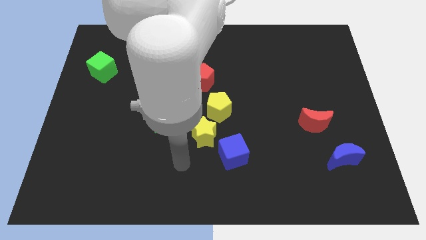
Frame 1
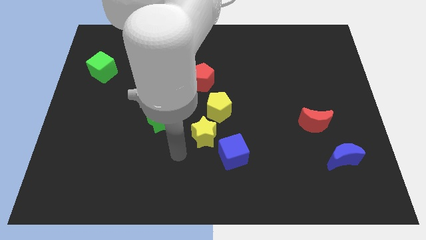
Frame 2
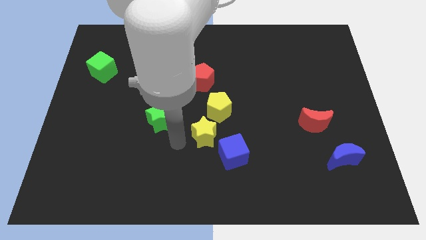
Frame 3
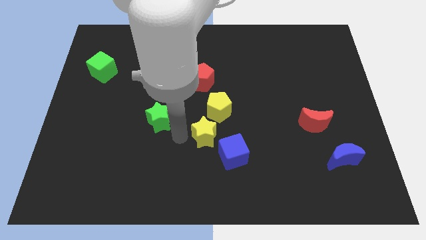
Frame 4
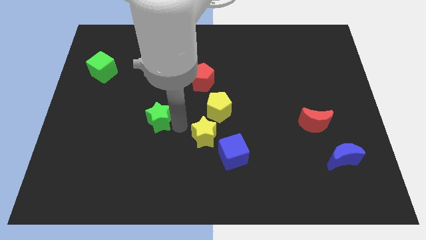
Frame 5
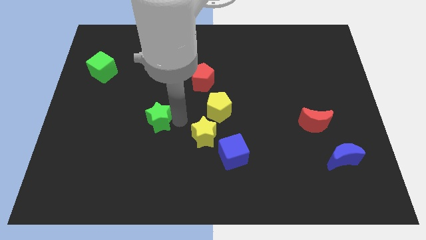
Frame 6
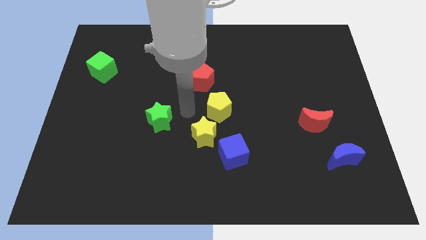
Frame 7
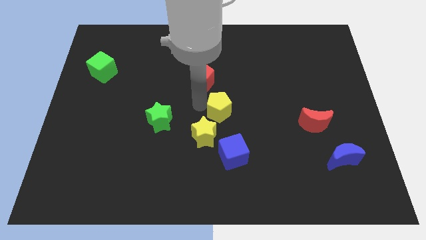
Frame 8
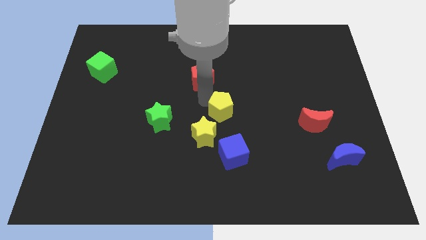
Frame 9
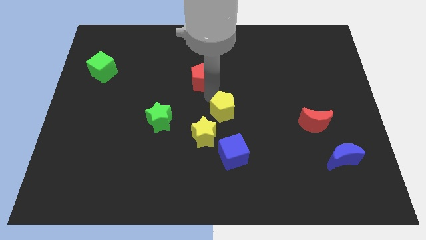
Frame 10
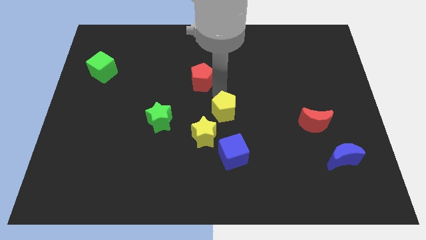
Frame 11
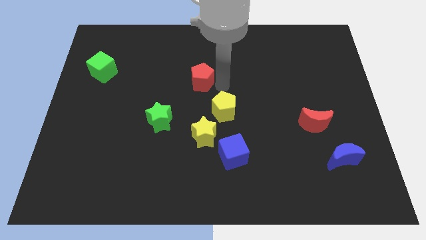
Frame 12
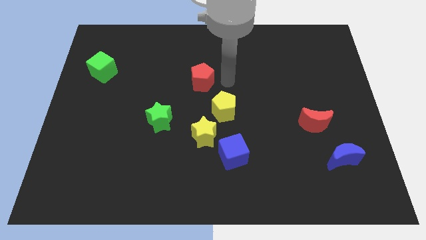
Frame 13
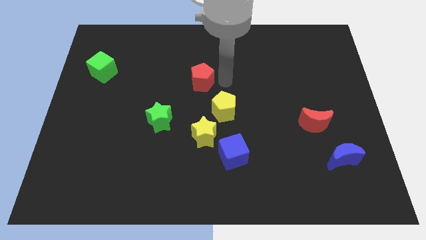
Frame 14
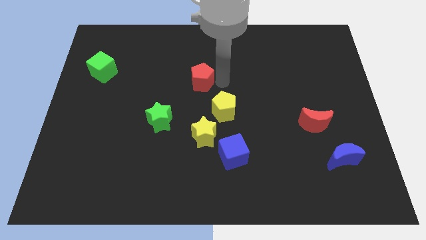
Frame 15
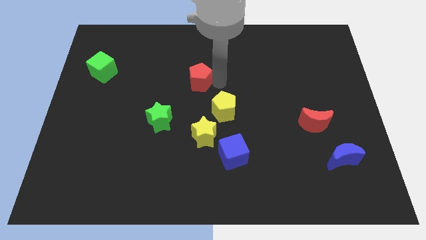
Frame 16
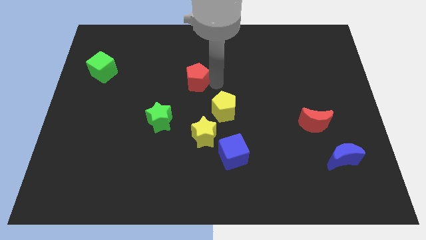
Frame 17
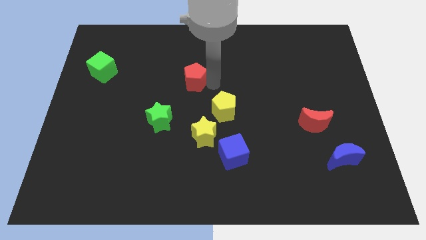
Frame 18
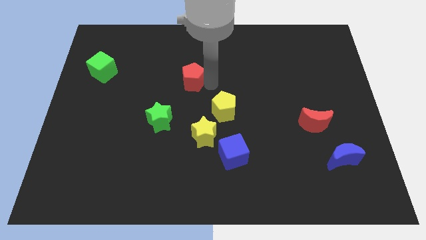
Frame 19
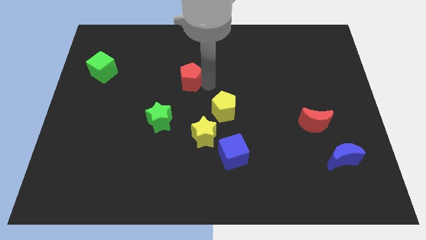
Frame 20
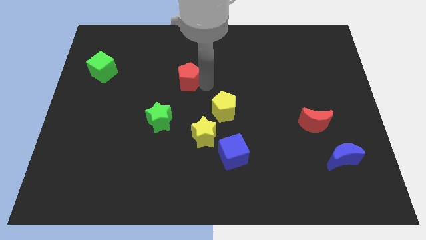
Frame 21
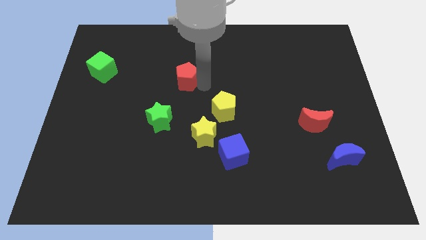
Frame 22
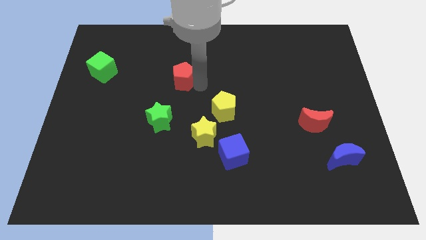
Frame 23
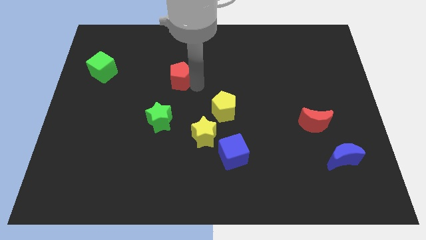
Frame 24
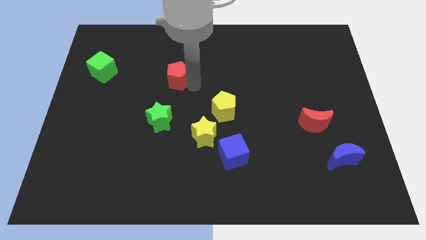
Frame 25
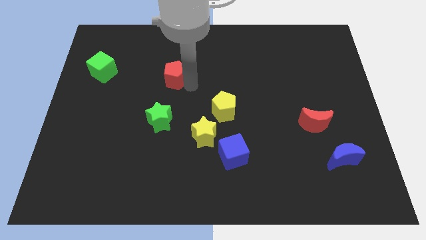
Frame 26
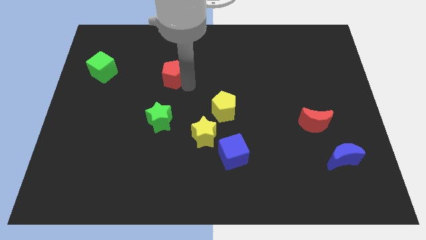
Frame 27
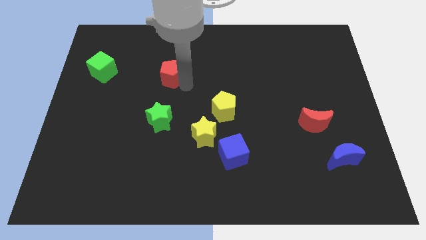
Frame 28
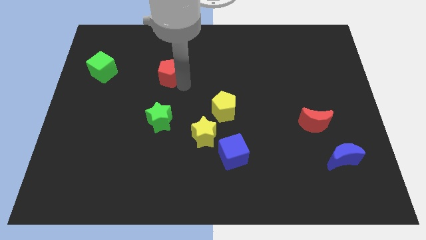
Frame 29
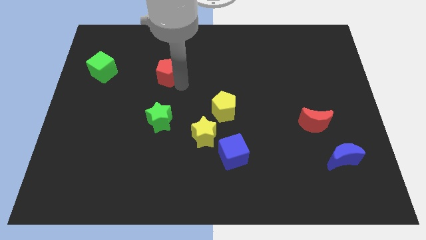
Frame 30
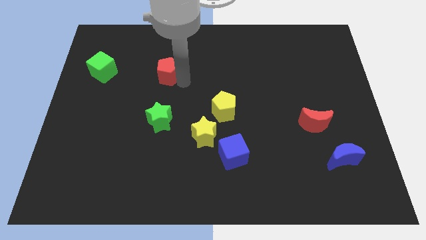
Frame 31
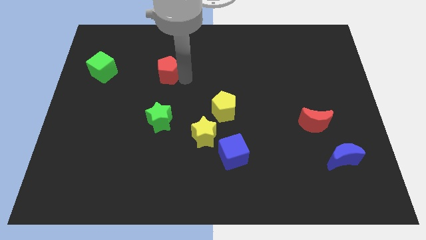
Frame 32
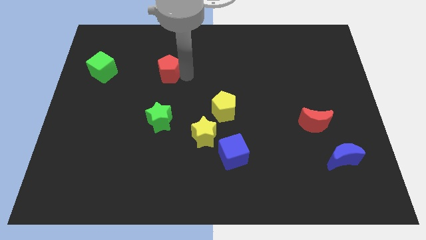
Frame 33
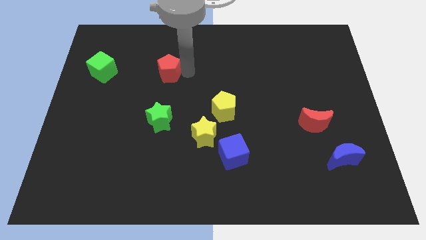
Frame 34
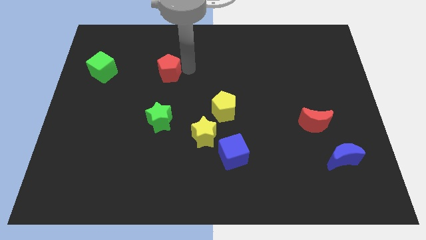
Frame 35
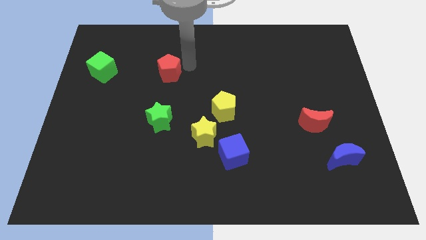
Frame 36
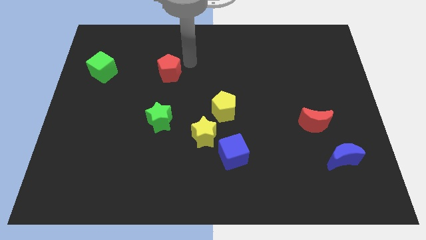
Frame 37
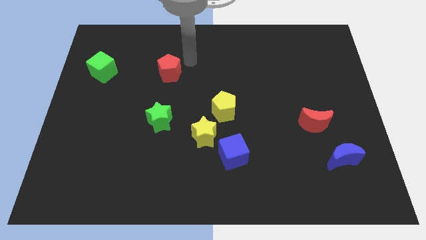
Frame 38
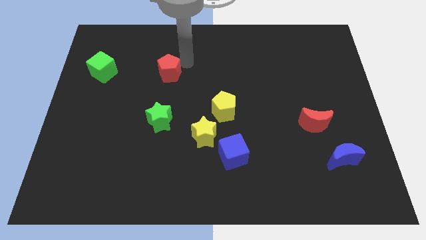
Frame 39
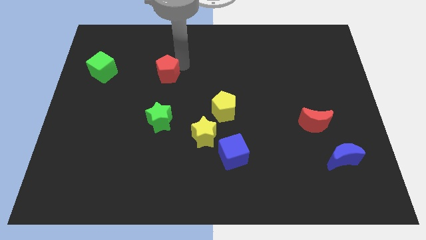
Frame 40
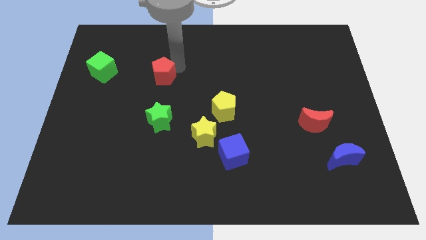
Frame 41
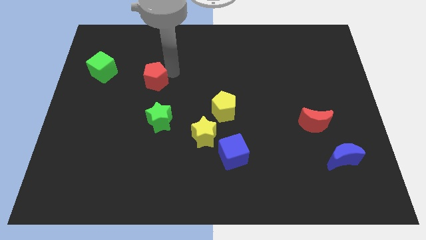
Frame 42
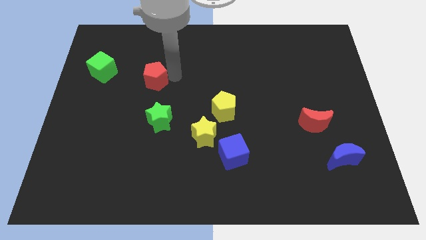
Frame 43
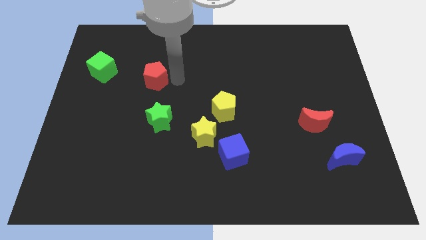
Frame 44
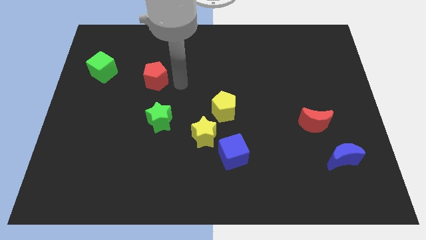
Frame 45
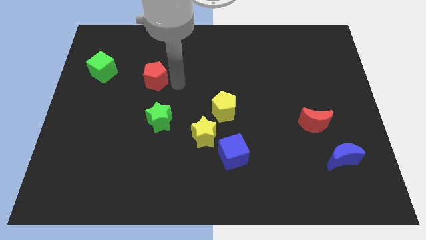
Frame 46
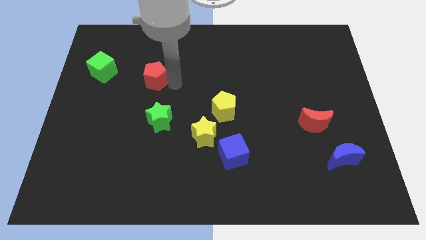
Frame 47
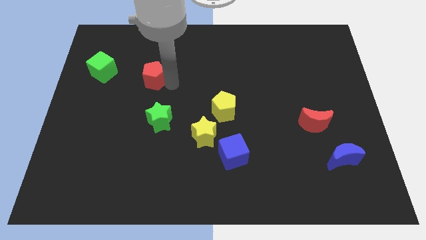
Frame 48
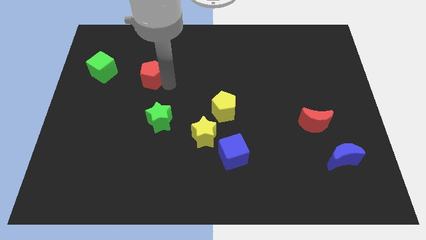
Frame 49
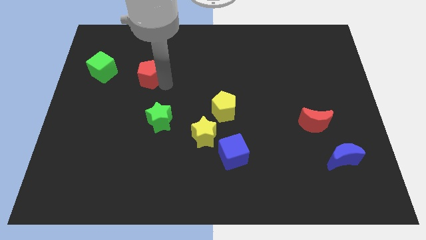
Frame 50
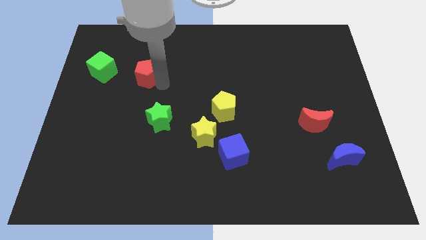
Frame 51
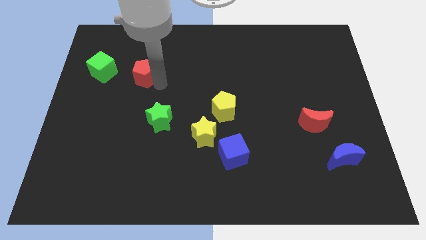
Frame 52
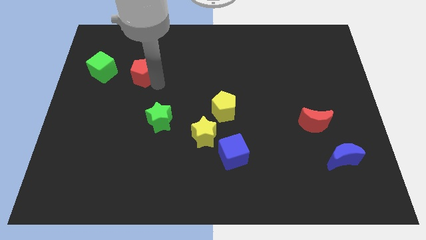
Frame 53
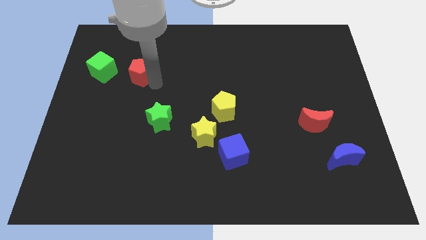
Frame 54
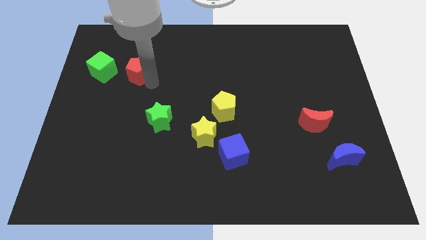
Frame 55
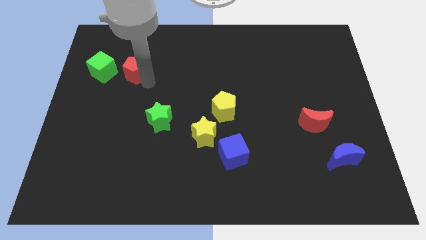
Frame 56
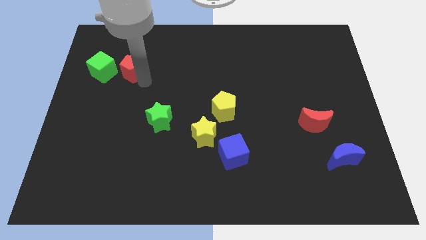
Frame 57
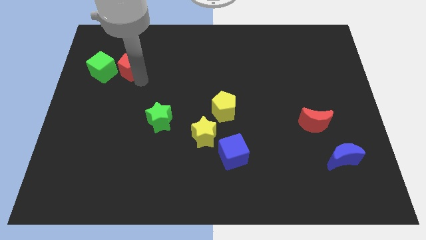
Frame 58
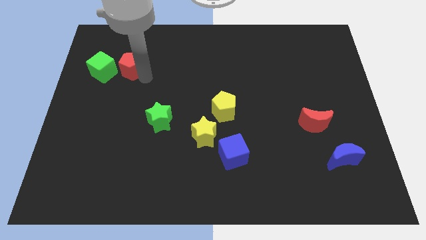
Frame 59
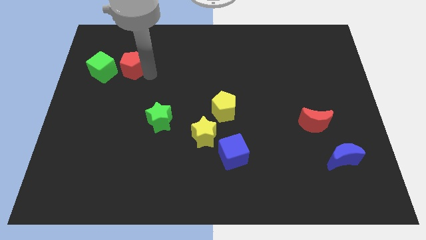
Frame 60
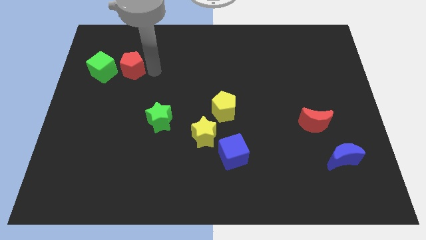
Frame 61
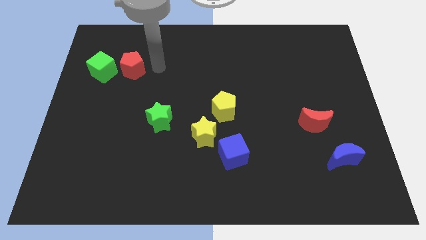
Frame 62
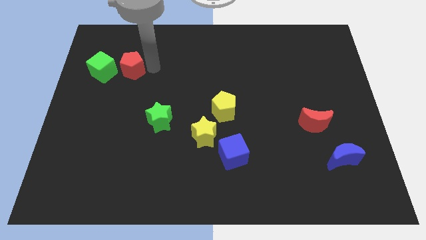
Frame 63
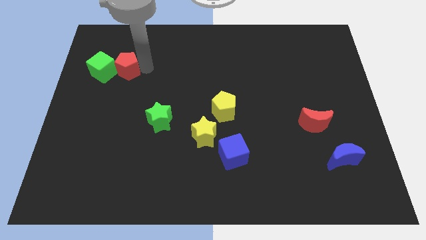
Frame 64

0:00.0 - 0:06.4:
put the red pentagon close to the green cube
